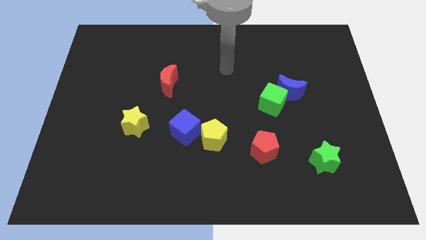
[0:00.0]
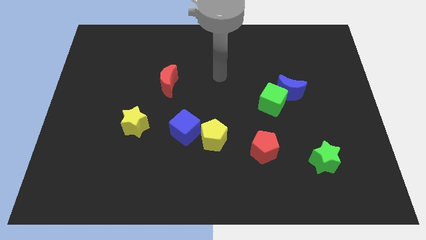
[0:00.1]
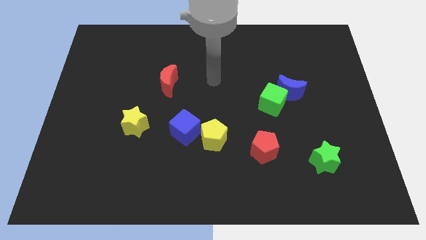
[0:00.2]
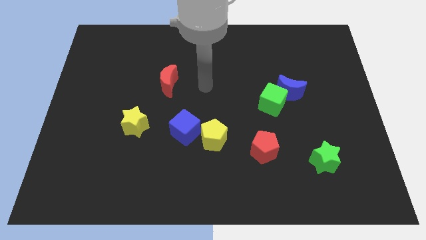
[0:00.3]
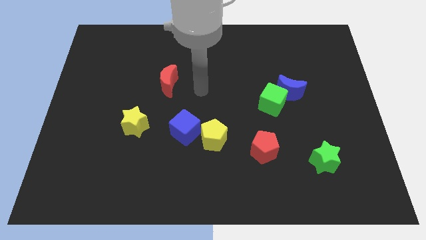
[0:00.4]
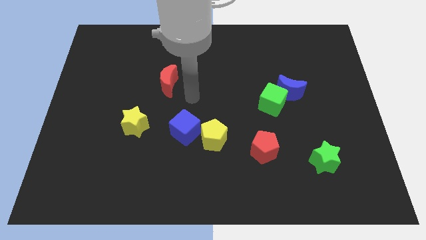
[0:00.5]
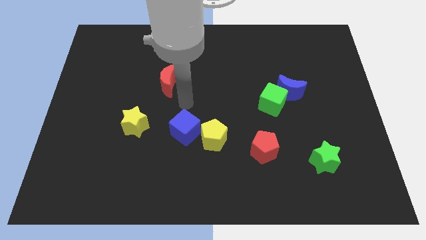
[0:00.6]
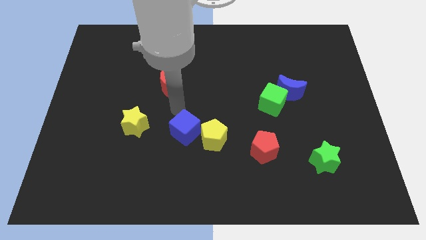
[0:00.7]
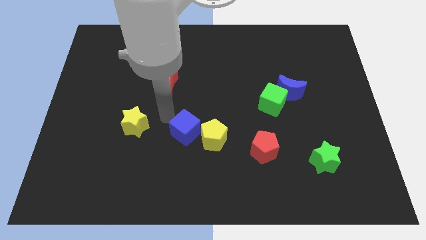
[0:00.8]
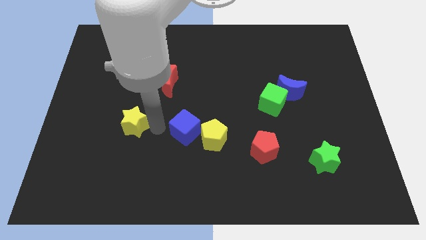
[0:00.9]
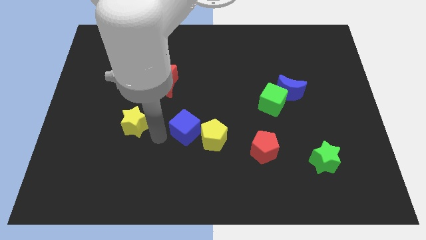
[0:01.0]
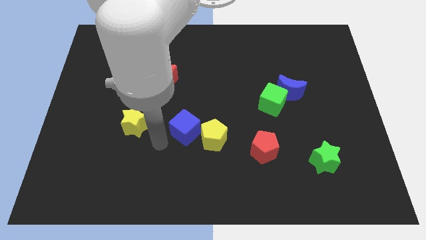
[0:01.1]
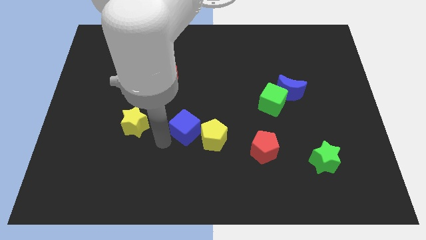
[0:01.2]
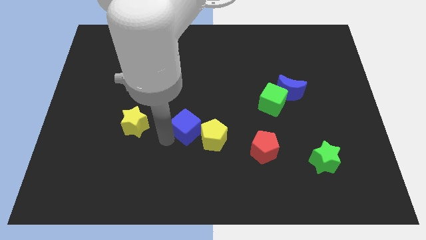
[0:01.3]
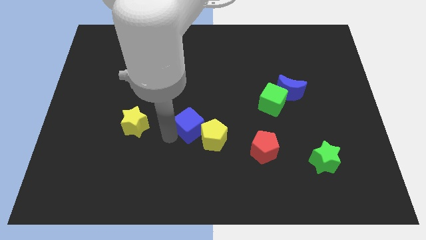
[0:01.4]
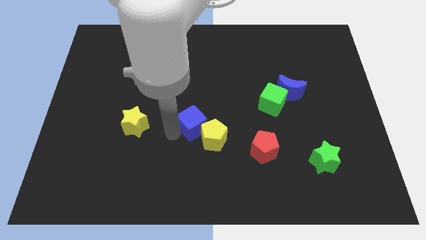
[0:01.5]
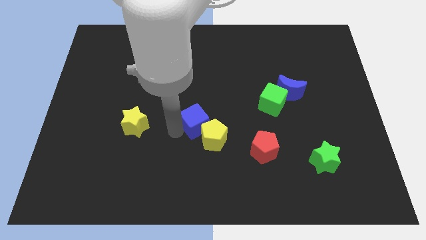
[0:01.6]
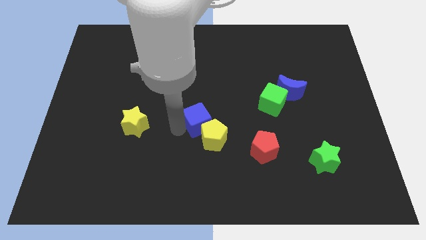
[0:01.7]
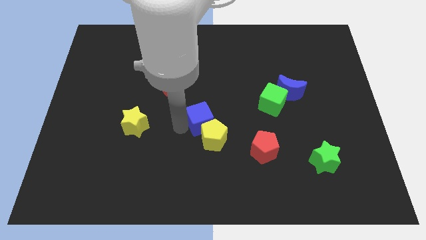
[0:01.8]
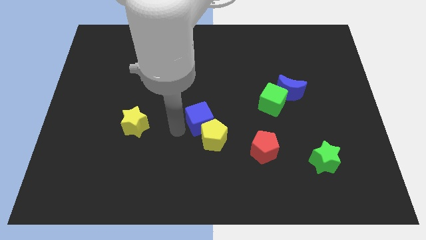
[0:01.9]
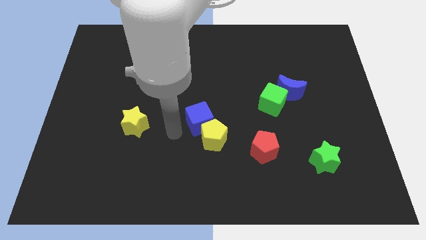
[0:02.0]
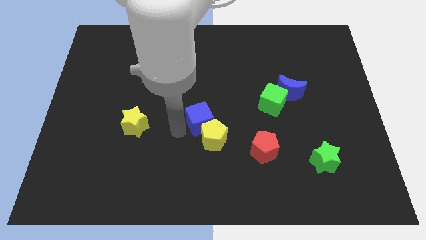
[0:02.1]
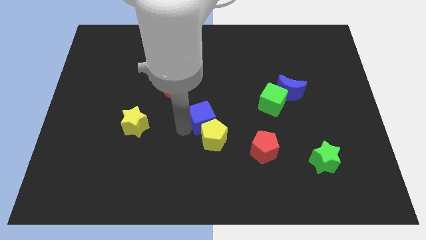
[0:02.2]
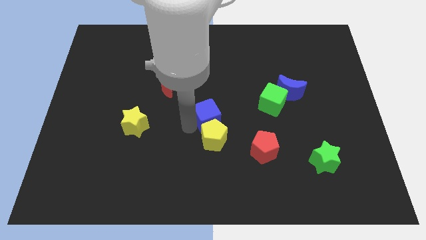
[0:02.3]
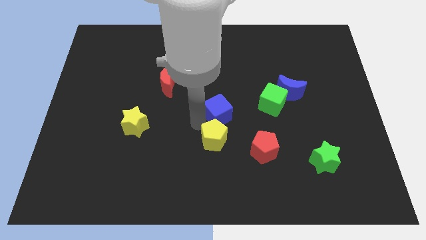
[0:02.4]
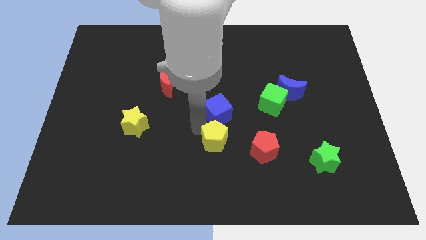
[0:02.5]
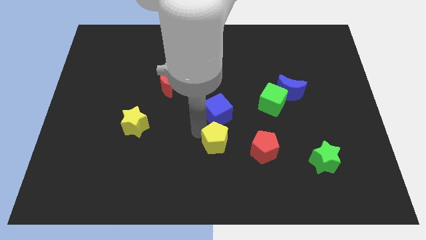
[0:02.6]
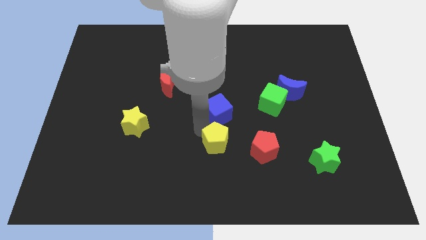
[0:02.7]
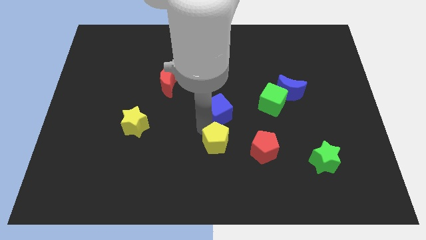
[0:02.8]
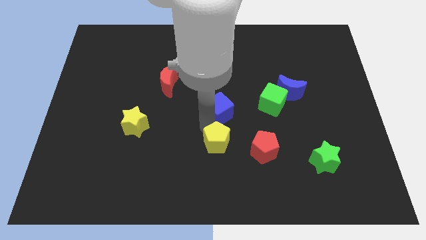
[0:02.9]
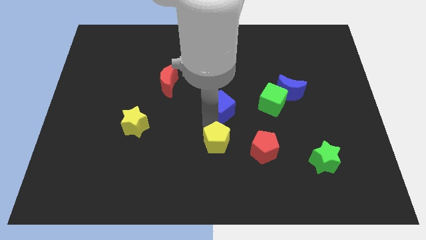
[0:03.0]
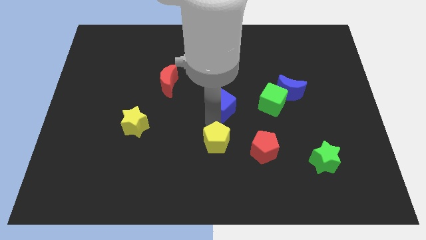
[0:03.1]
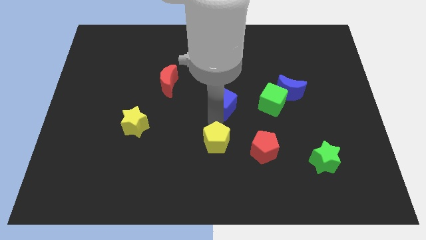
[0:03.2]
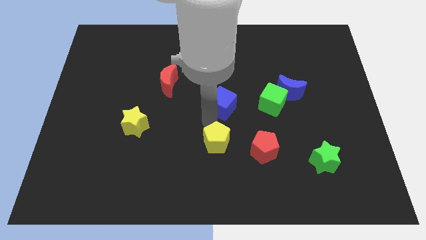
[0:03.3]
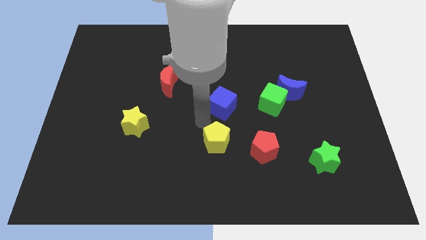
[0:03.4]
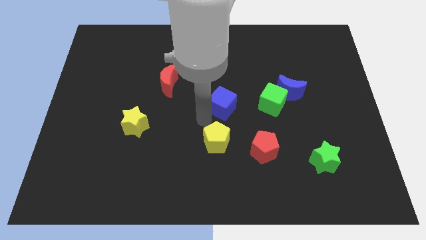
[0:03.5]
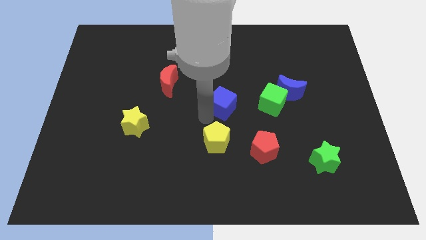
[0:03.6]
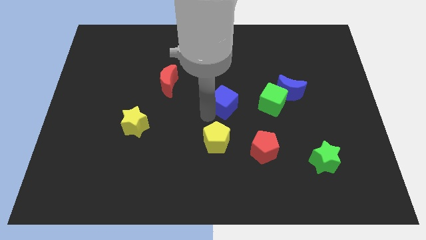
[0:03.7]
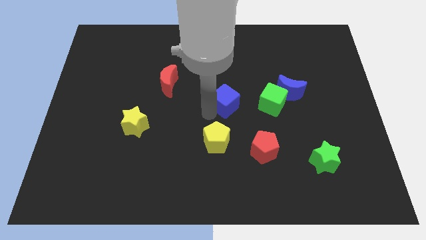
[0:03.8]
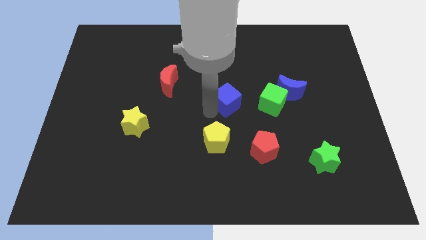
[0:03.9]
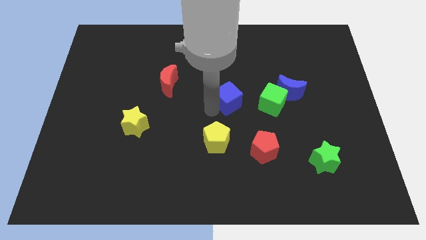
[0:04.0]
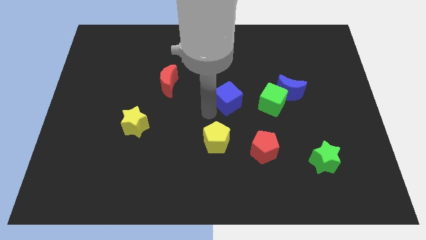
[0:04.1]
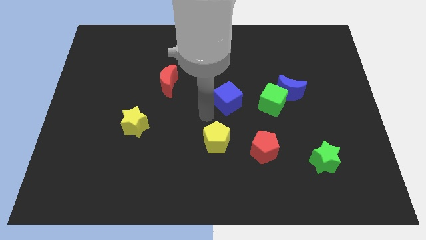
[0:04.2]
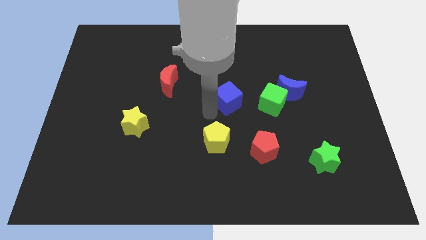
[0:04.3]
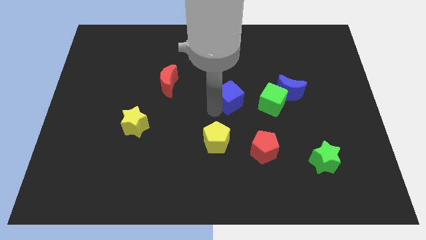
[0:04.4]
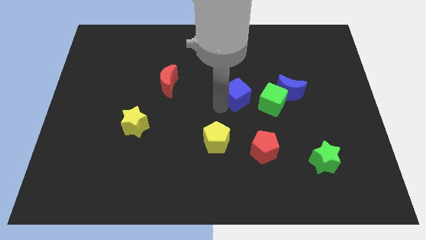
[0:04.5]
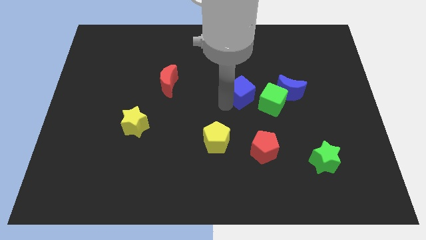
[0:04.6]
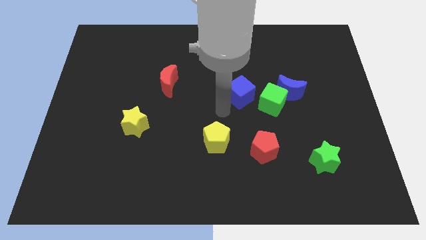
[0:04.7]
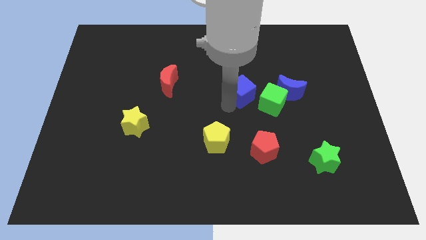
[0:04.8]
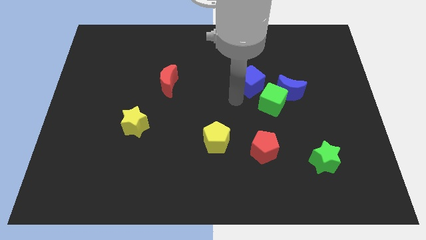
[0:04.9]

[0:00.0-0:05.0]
move the blue cube above the green cube

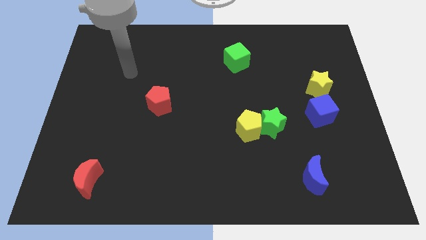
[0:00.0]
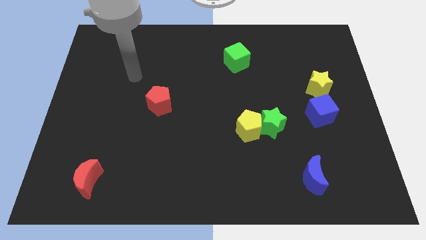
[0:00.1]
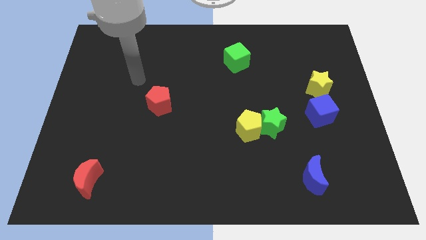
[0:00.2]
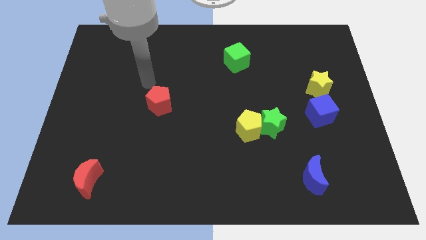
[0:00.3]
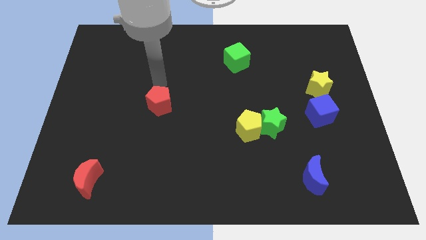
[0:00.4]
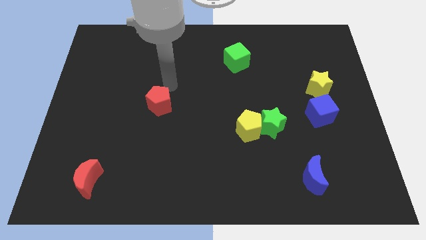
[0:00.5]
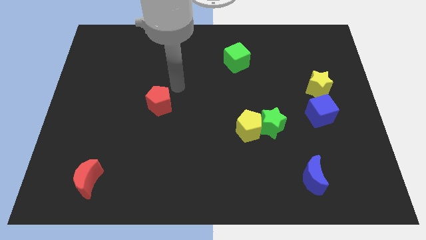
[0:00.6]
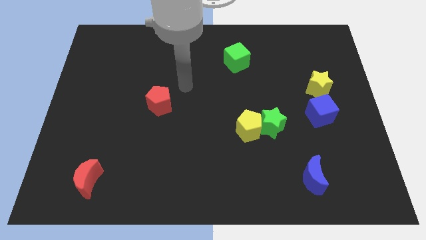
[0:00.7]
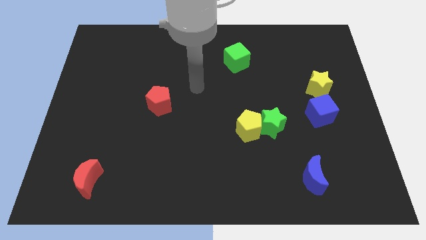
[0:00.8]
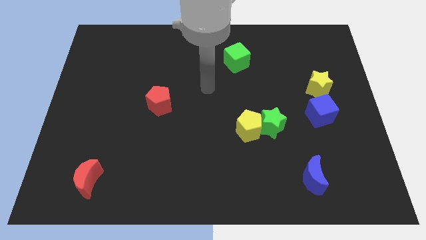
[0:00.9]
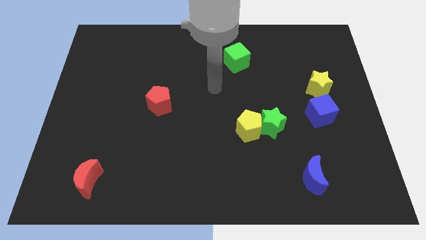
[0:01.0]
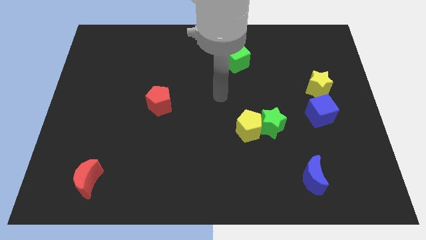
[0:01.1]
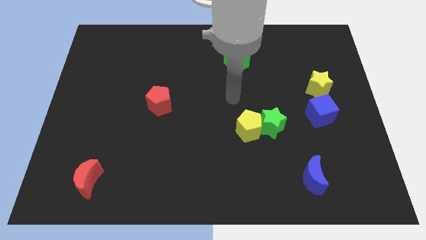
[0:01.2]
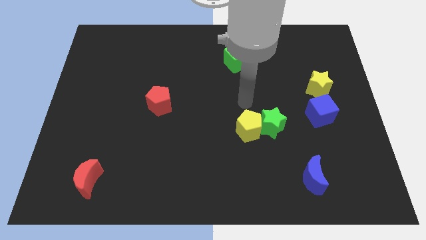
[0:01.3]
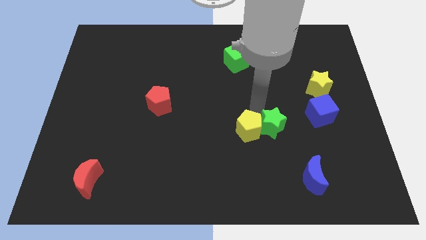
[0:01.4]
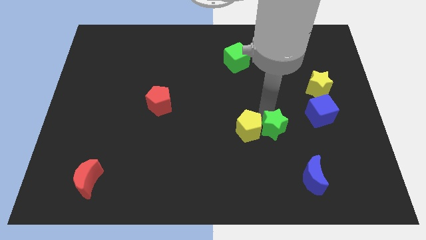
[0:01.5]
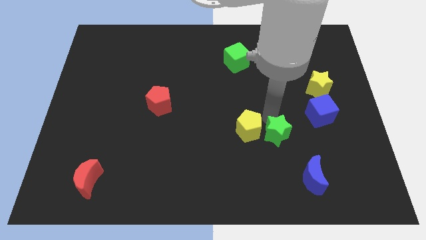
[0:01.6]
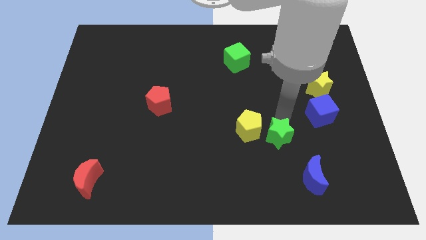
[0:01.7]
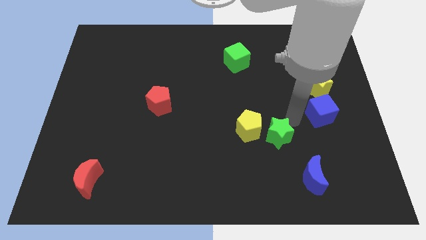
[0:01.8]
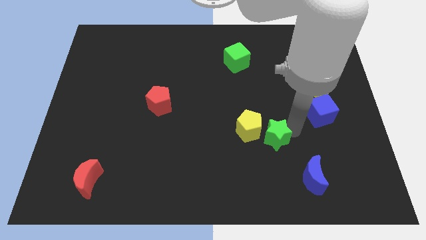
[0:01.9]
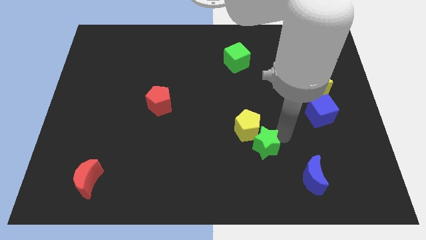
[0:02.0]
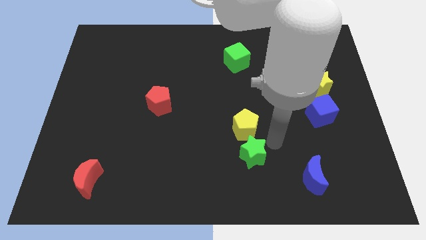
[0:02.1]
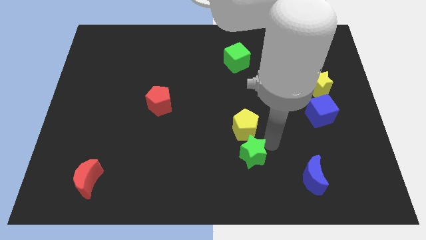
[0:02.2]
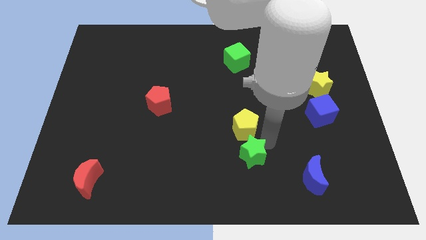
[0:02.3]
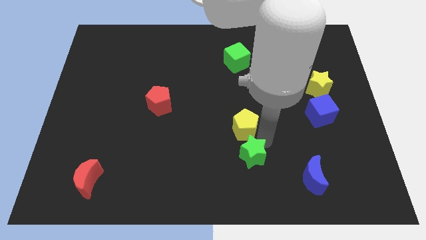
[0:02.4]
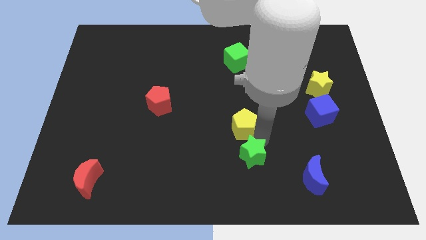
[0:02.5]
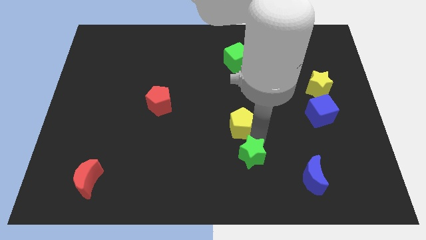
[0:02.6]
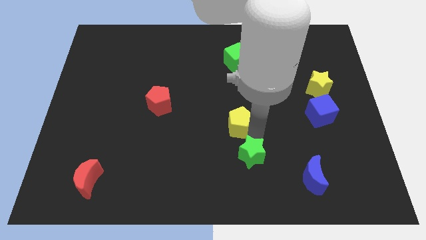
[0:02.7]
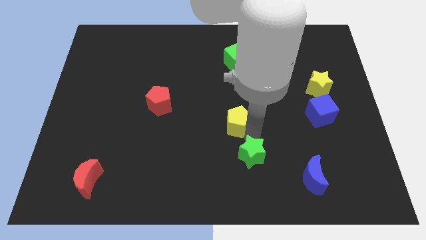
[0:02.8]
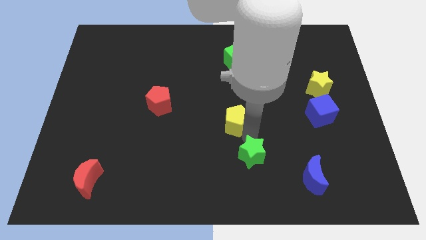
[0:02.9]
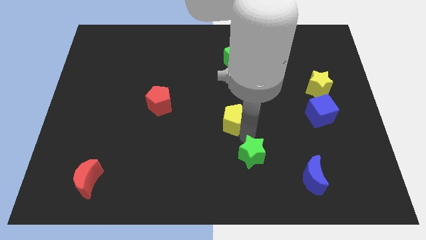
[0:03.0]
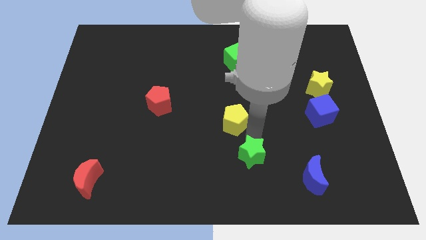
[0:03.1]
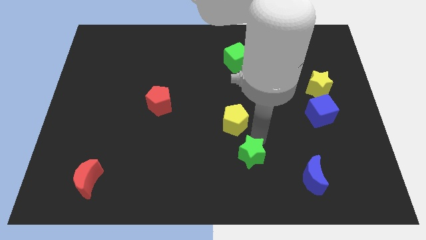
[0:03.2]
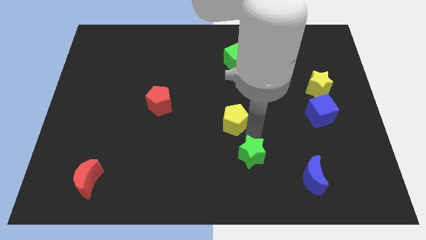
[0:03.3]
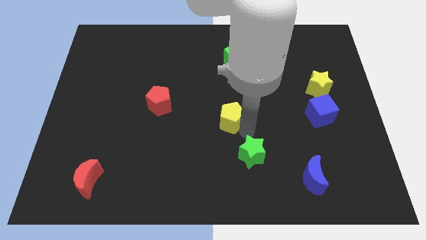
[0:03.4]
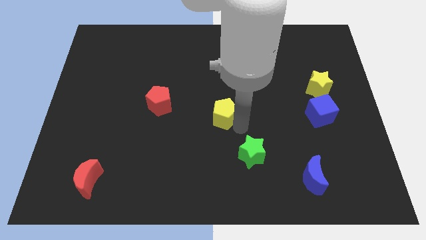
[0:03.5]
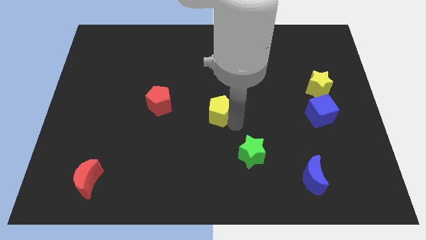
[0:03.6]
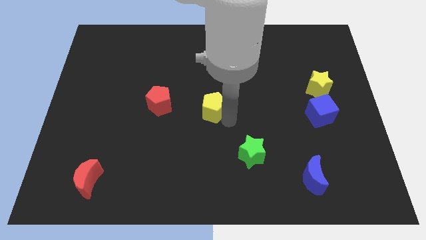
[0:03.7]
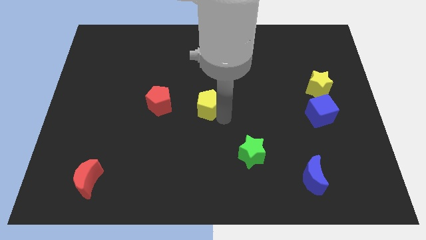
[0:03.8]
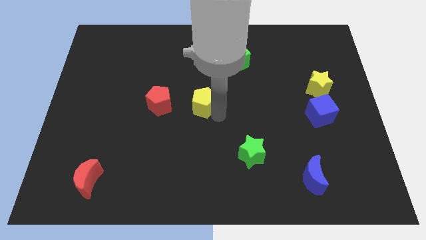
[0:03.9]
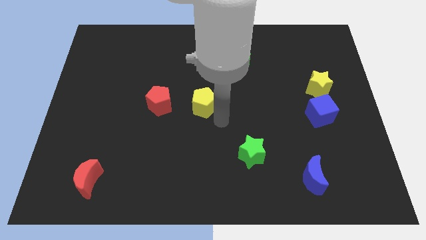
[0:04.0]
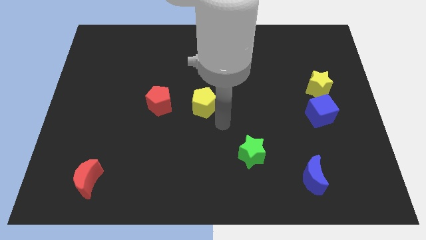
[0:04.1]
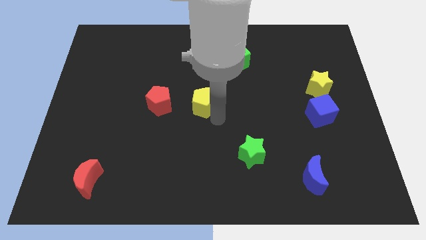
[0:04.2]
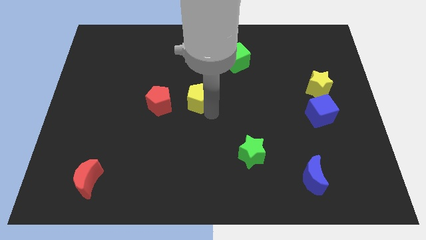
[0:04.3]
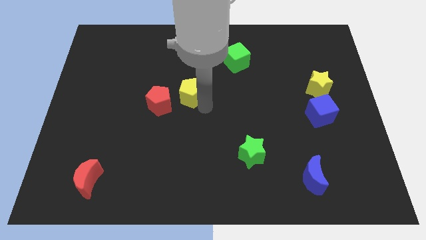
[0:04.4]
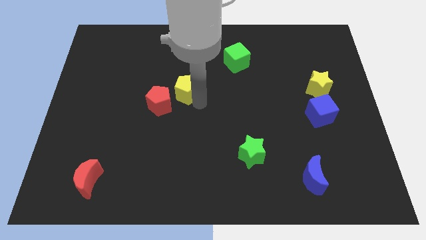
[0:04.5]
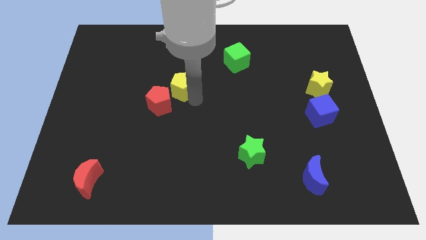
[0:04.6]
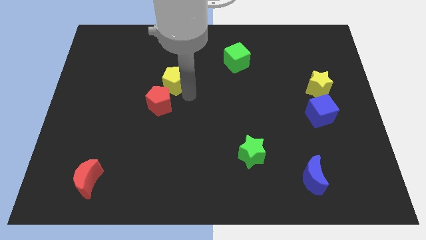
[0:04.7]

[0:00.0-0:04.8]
push the yellow pentagon to the top of the red pentagon
